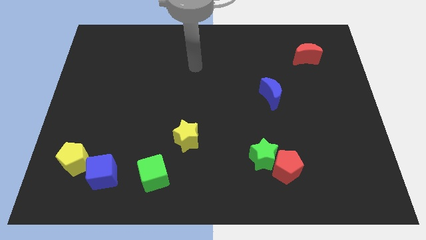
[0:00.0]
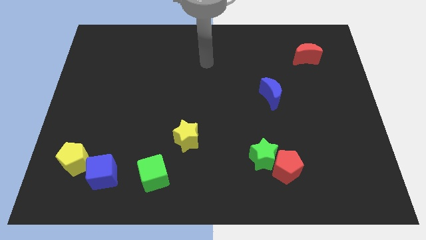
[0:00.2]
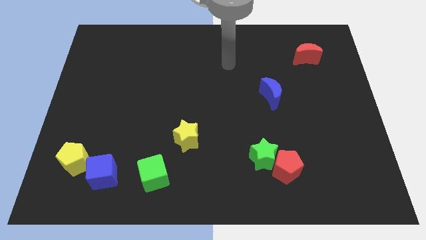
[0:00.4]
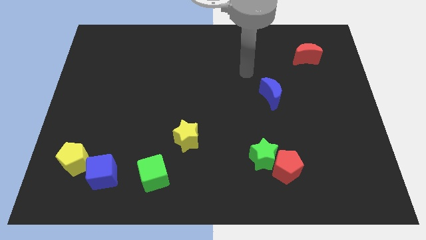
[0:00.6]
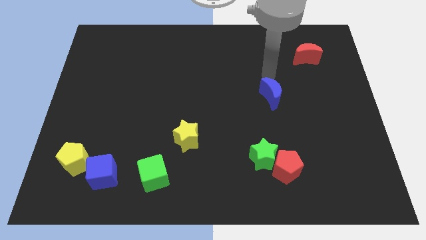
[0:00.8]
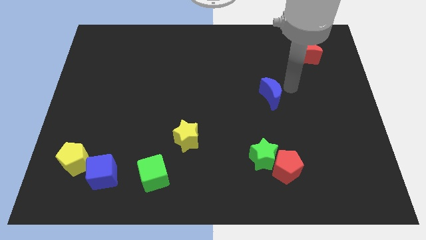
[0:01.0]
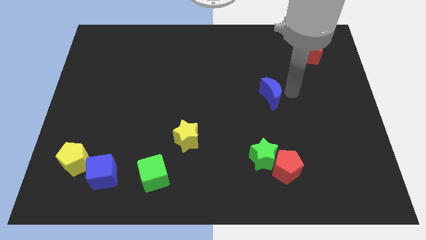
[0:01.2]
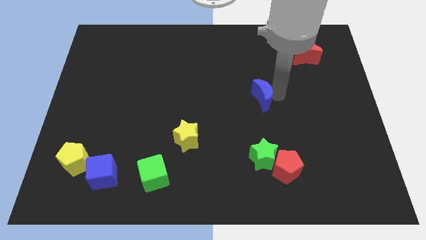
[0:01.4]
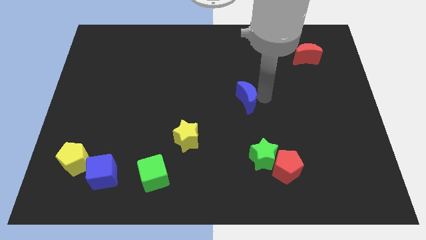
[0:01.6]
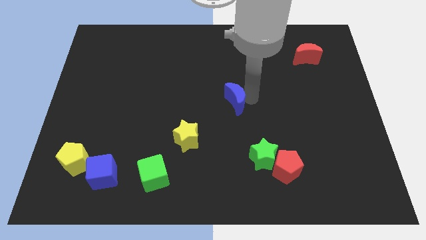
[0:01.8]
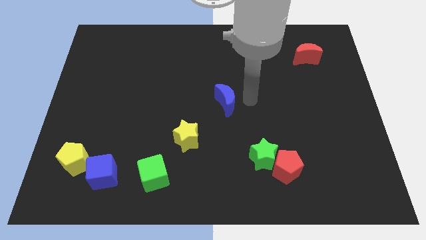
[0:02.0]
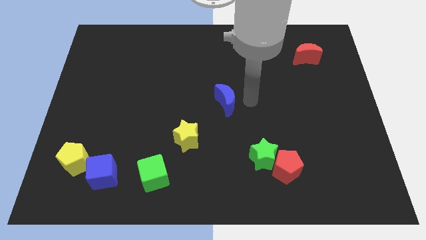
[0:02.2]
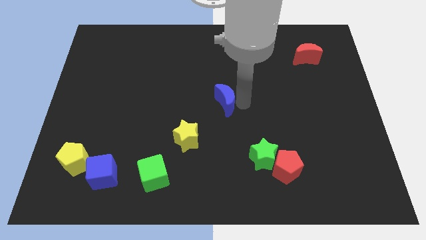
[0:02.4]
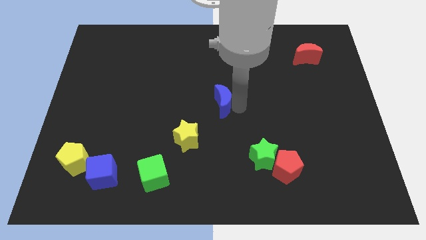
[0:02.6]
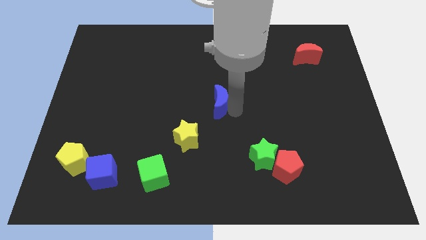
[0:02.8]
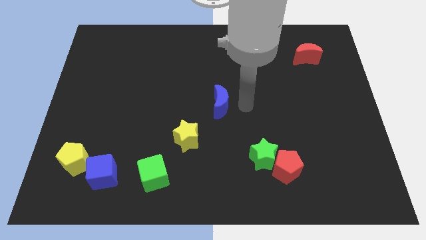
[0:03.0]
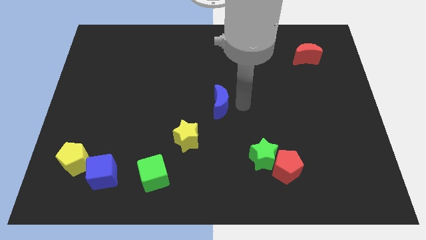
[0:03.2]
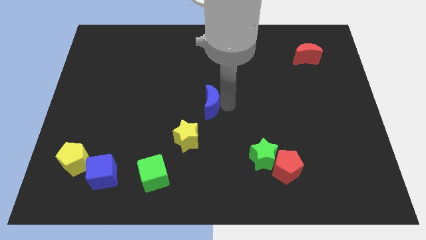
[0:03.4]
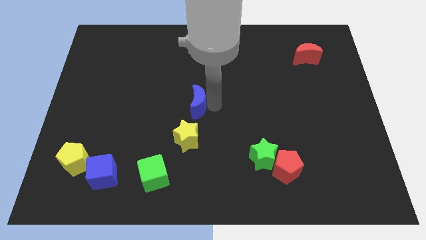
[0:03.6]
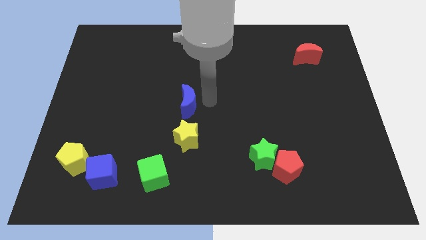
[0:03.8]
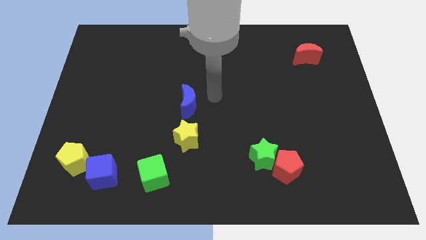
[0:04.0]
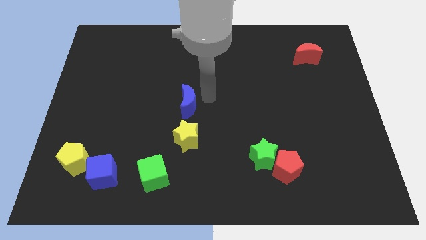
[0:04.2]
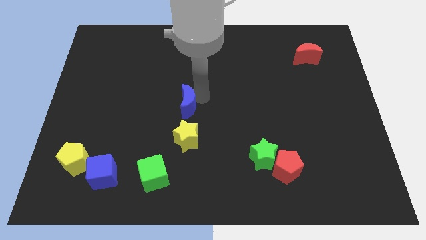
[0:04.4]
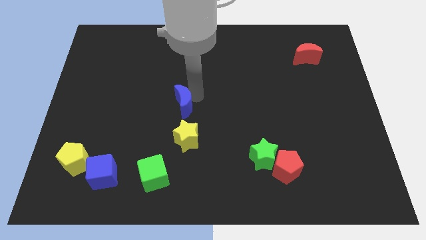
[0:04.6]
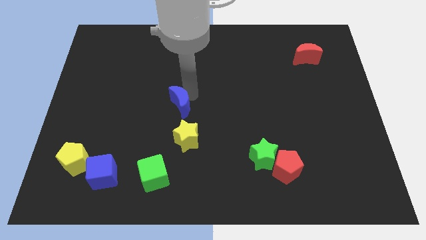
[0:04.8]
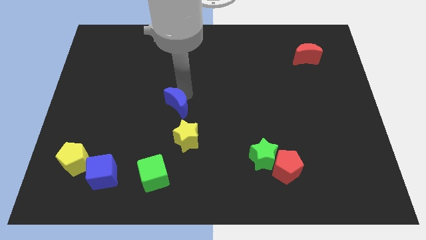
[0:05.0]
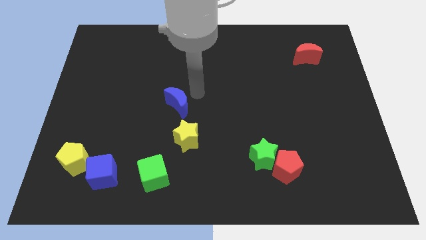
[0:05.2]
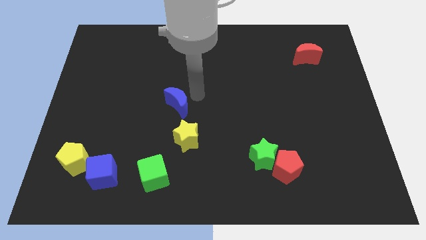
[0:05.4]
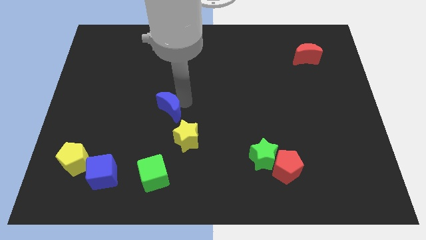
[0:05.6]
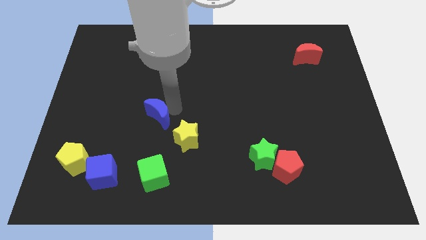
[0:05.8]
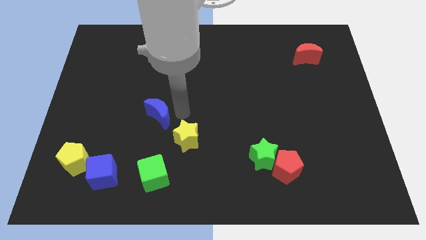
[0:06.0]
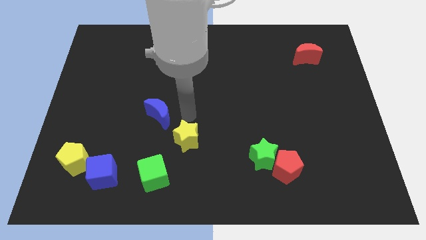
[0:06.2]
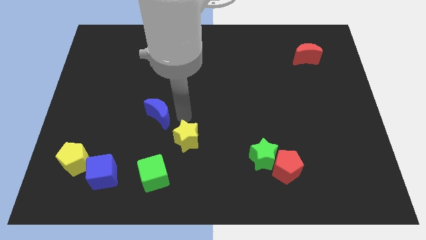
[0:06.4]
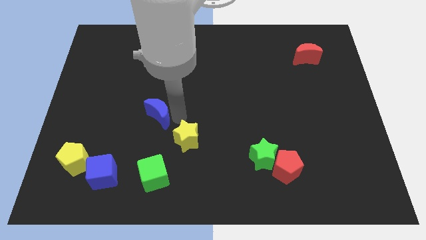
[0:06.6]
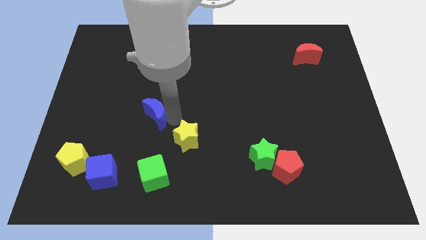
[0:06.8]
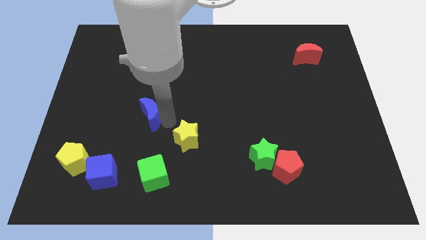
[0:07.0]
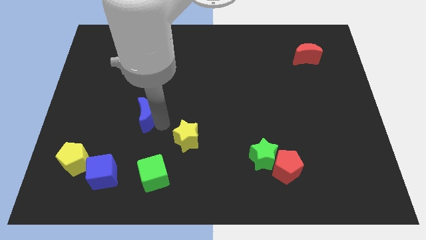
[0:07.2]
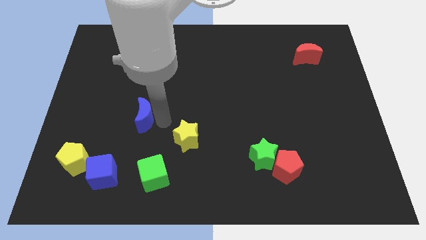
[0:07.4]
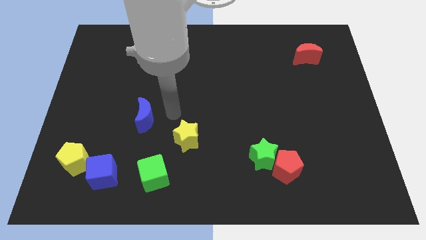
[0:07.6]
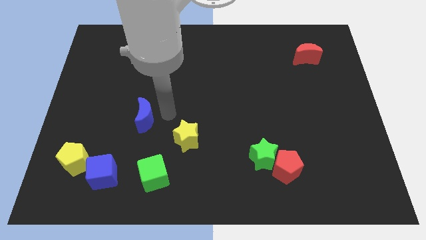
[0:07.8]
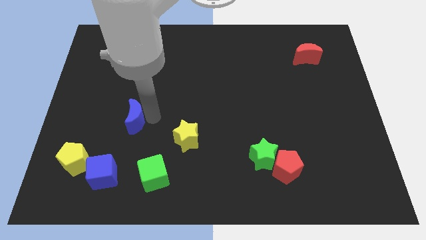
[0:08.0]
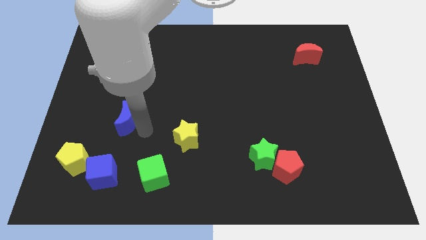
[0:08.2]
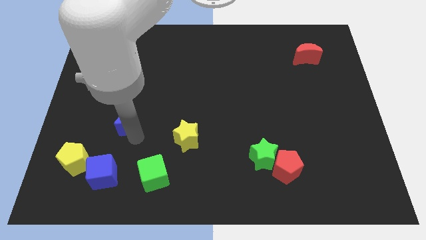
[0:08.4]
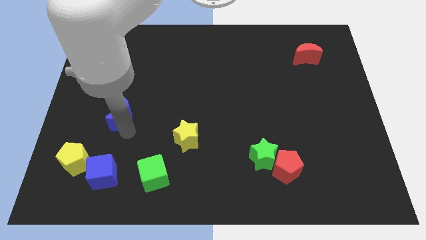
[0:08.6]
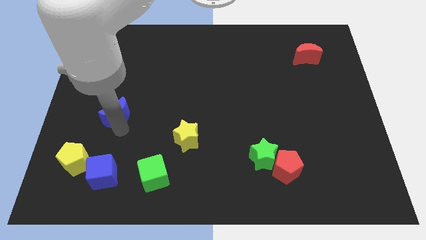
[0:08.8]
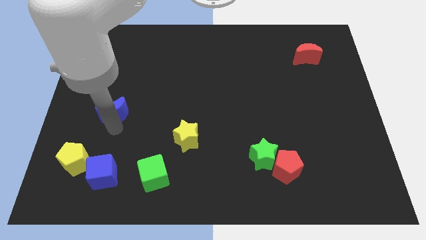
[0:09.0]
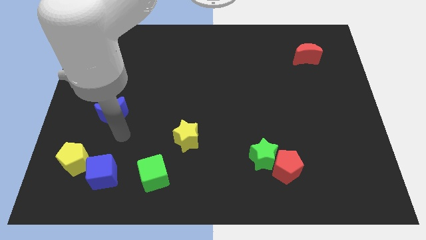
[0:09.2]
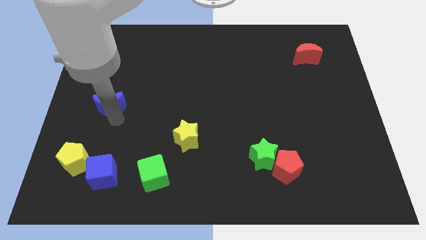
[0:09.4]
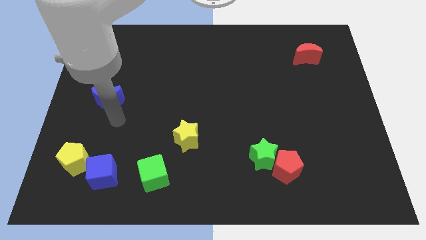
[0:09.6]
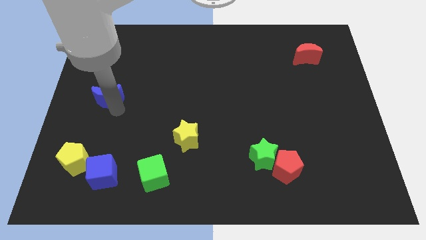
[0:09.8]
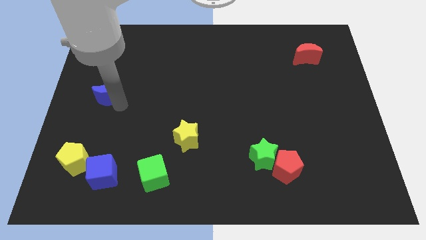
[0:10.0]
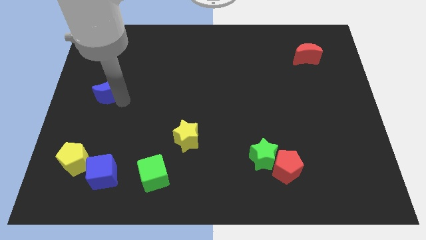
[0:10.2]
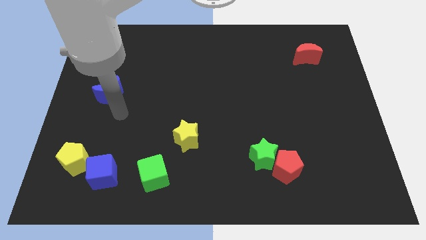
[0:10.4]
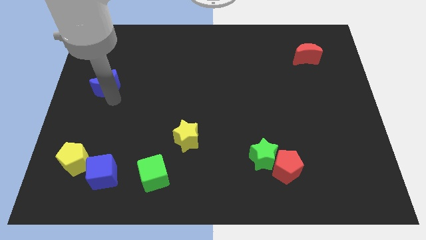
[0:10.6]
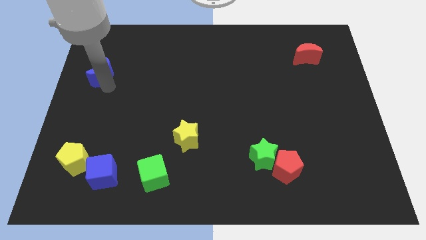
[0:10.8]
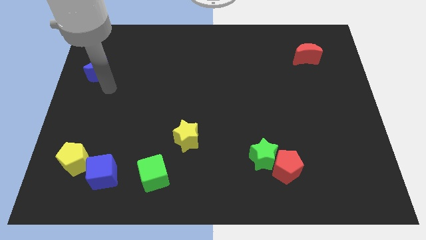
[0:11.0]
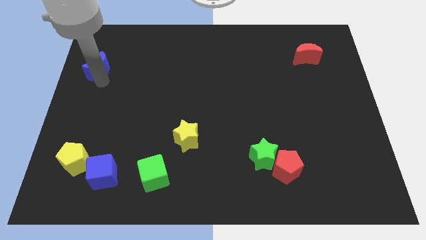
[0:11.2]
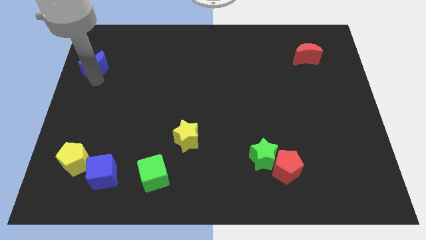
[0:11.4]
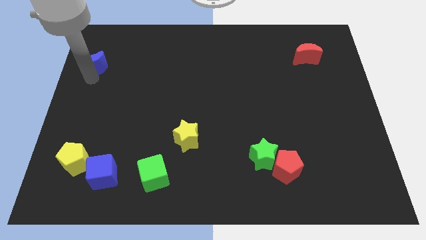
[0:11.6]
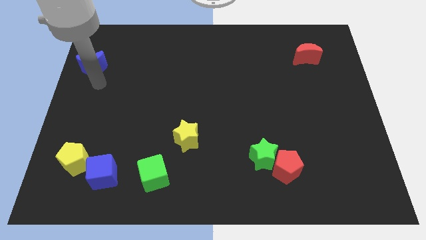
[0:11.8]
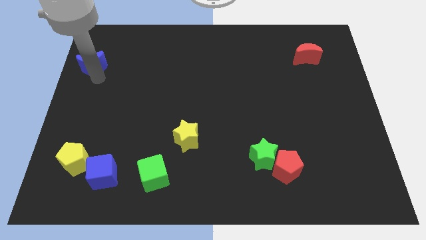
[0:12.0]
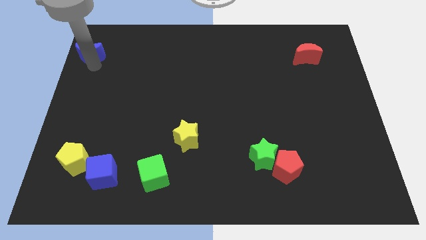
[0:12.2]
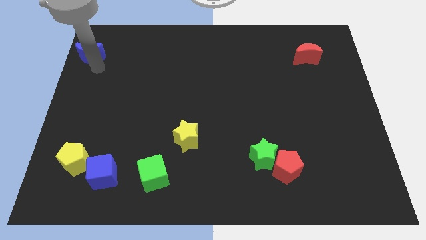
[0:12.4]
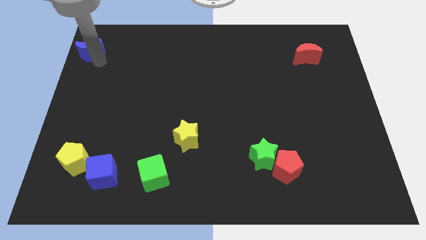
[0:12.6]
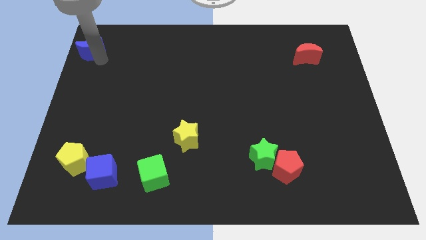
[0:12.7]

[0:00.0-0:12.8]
put the blue moon to the upper left corner
